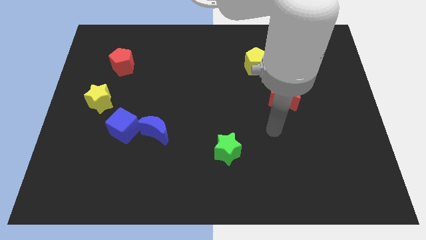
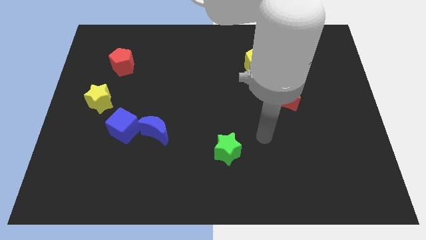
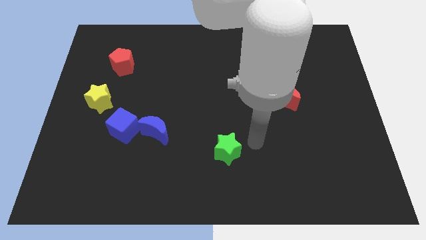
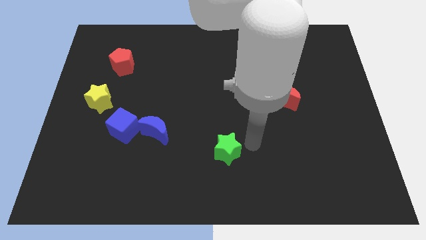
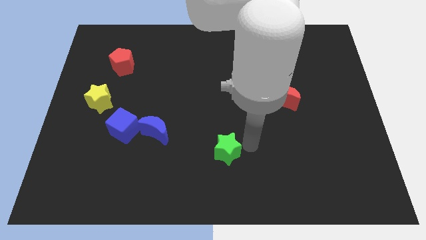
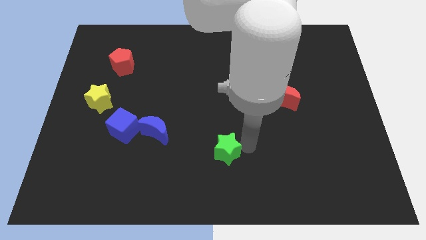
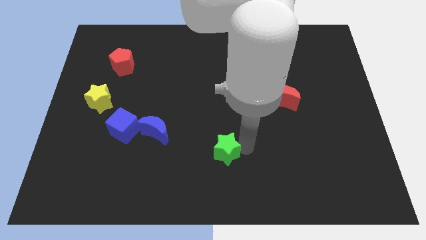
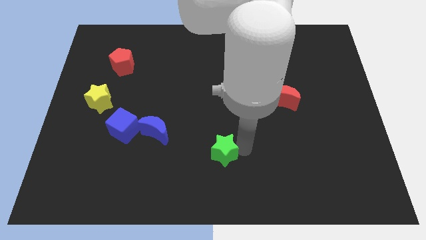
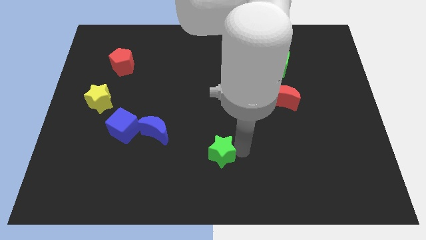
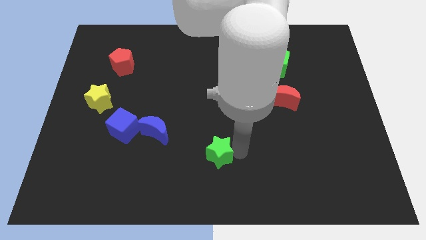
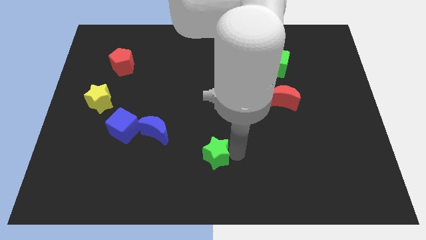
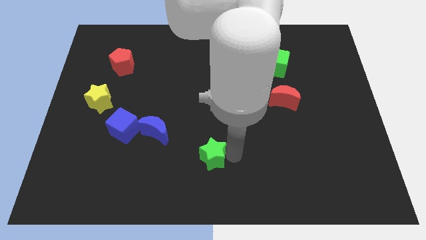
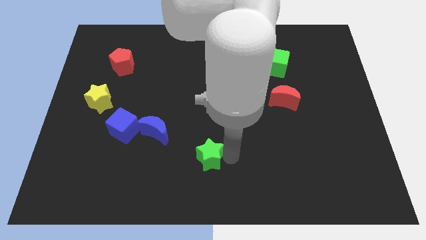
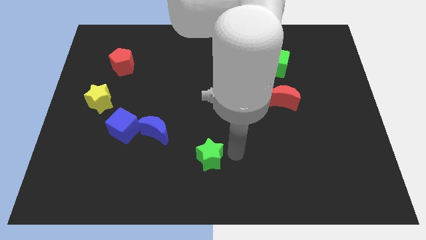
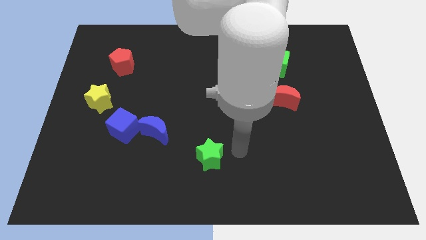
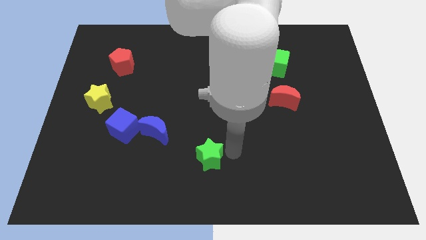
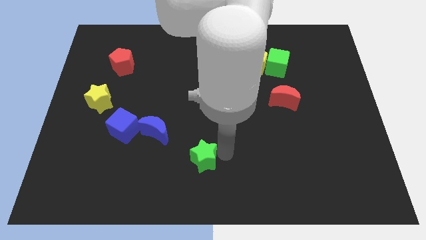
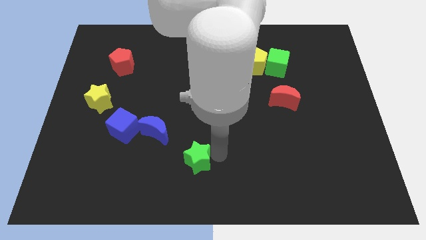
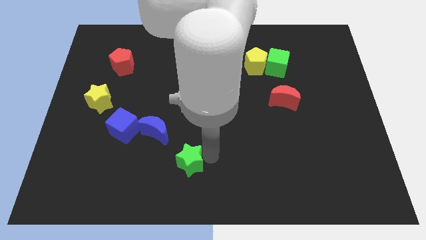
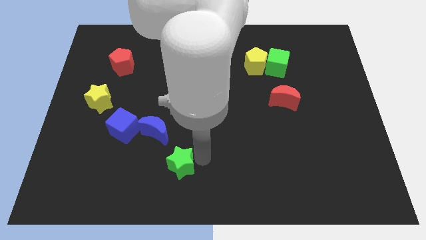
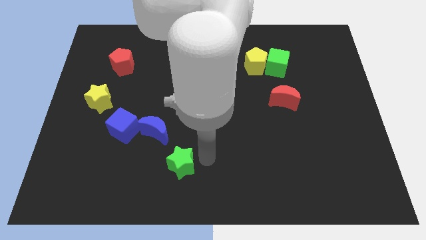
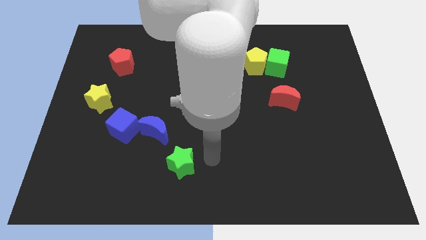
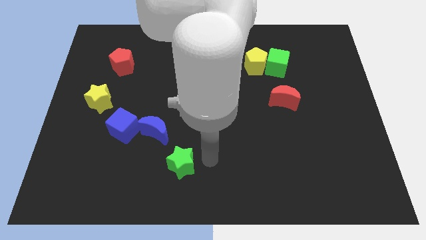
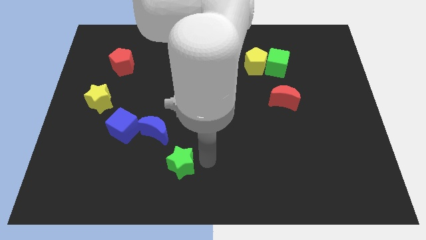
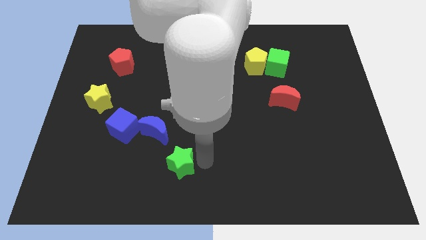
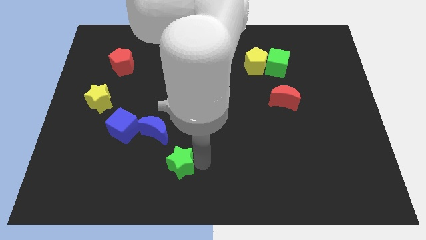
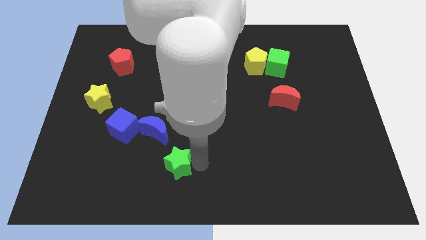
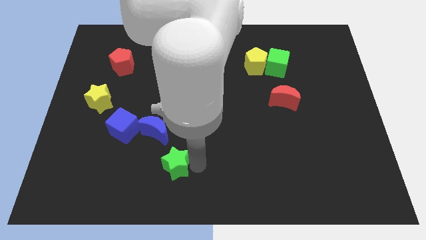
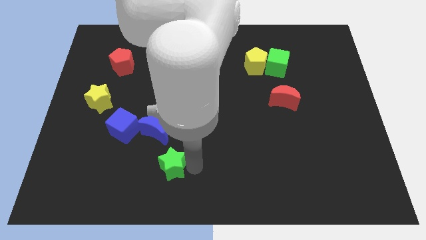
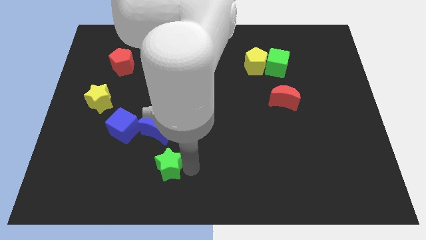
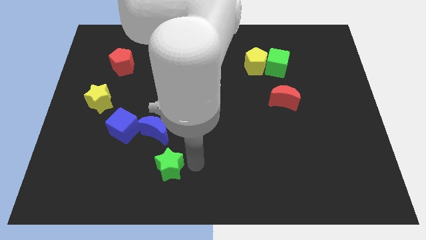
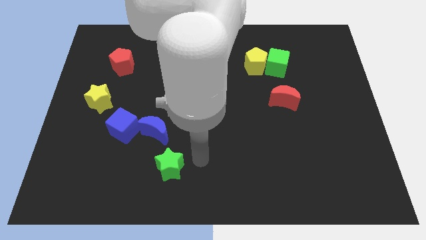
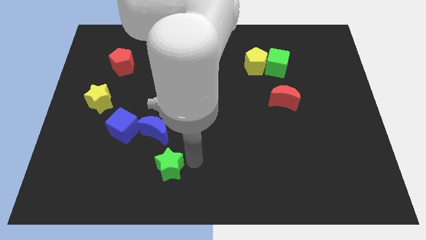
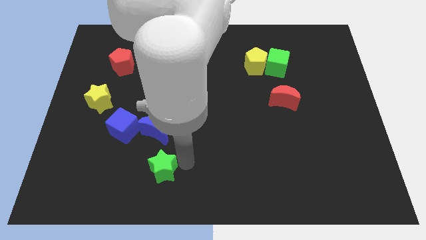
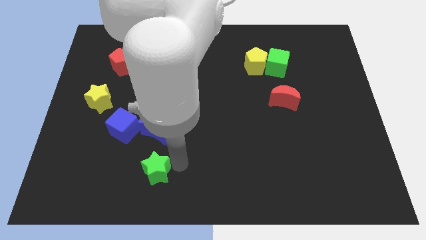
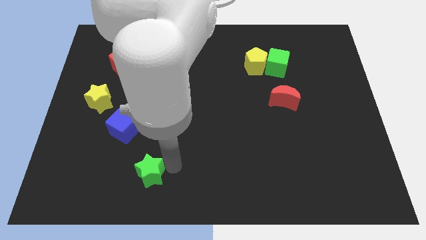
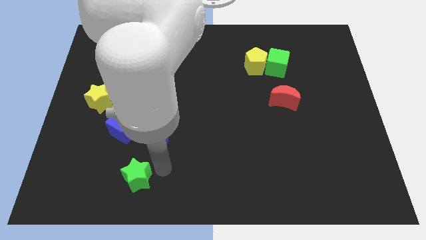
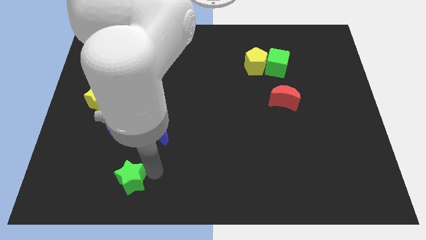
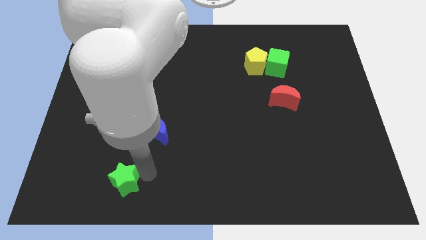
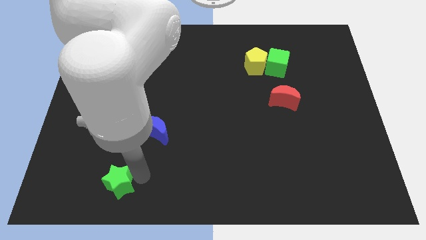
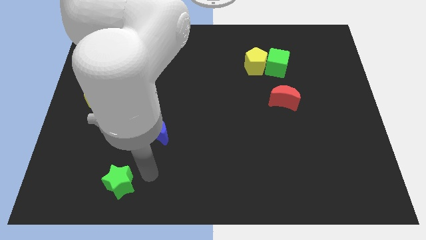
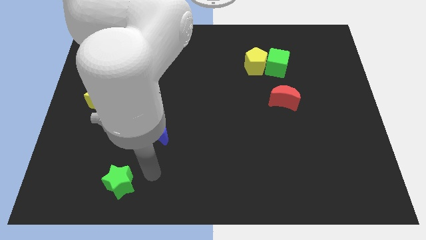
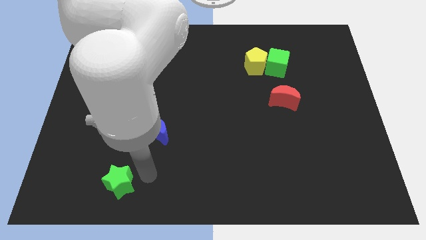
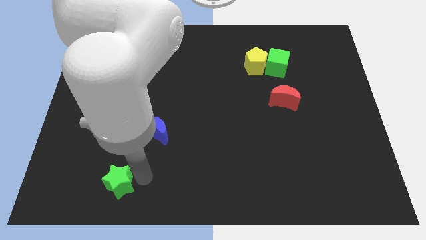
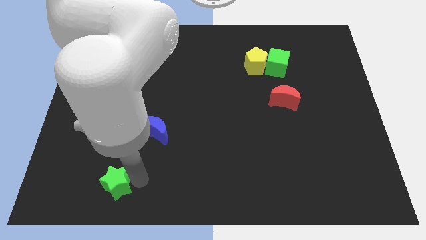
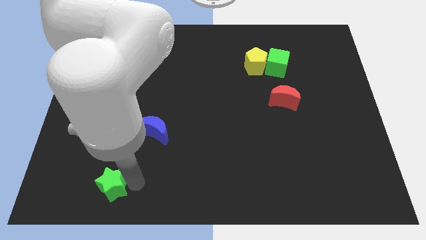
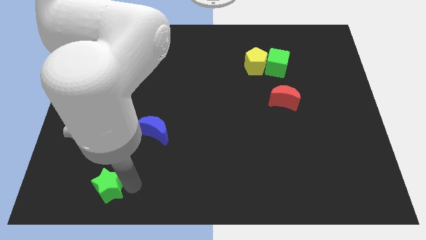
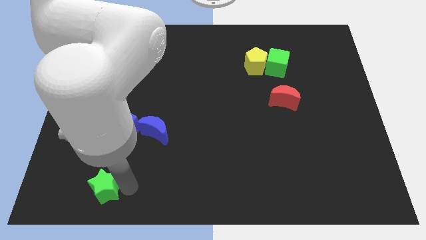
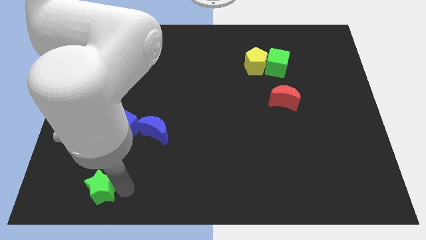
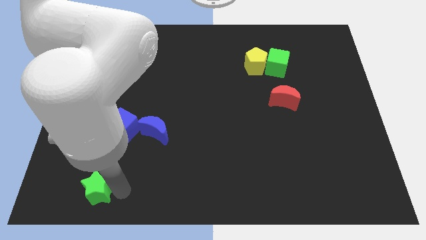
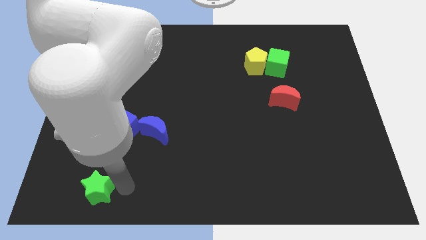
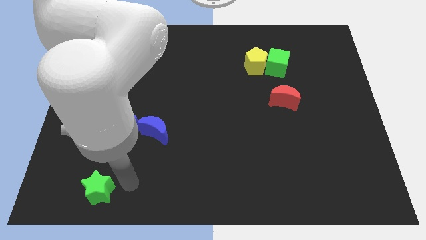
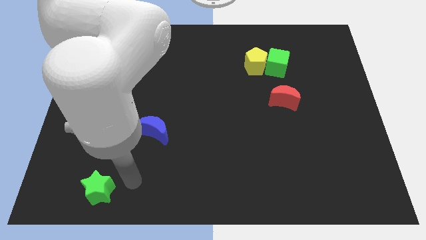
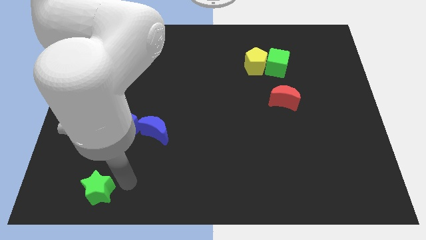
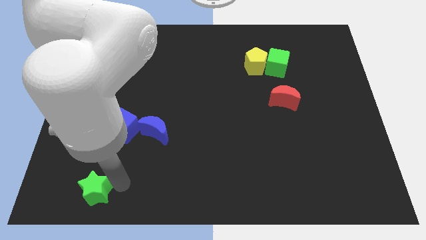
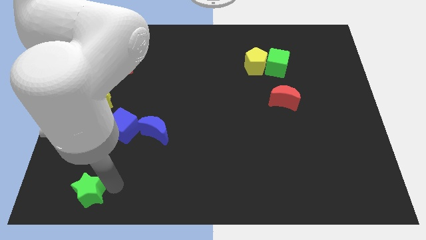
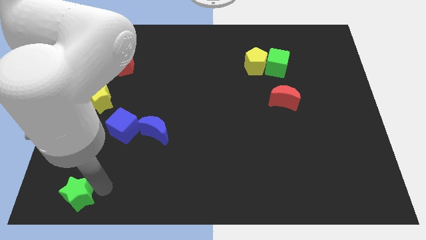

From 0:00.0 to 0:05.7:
move the green star to the bottom left

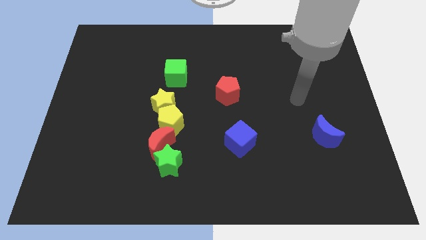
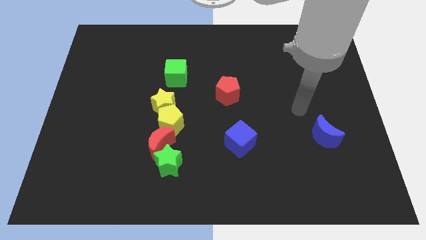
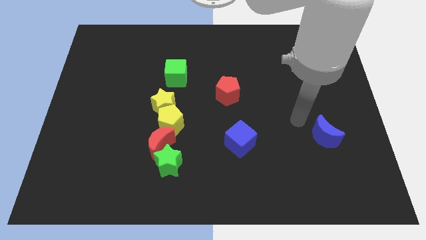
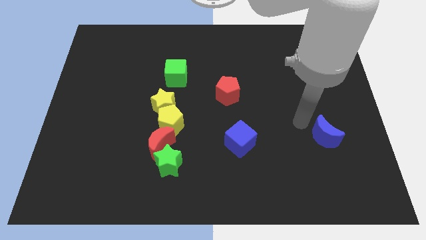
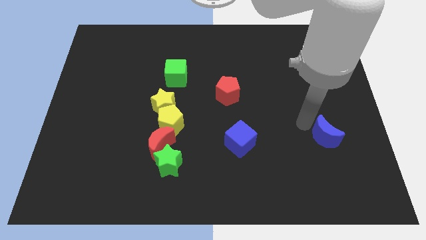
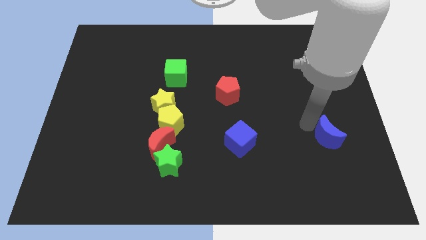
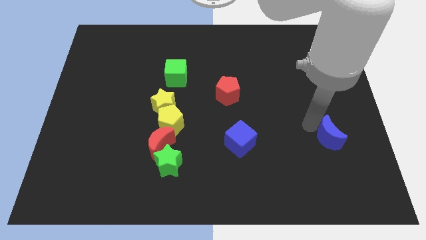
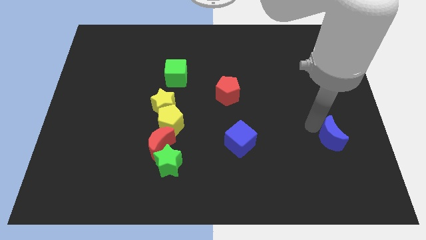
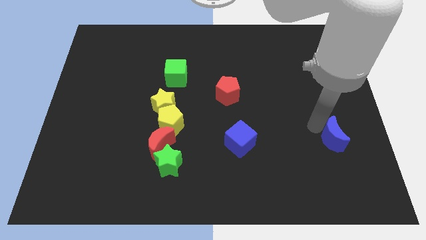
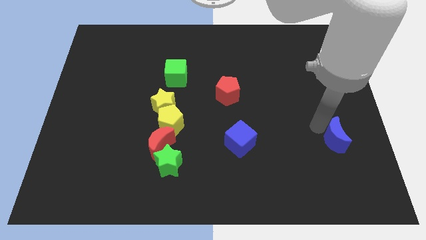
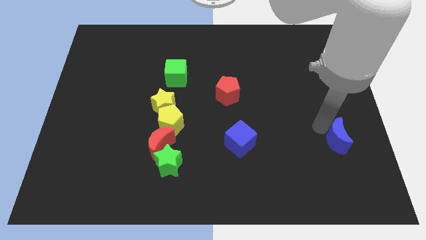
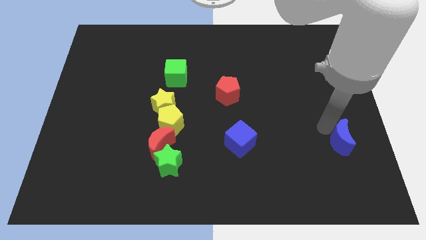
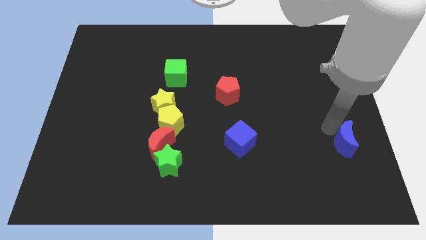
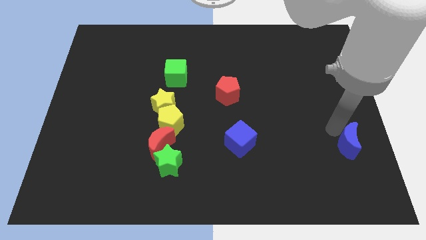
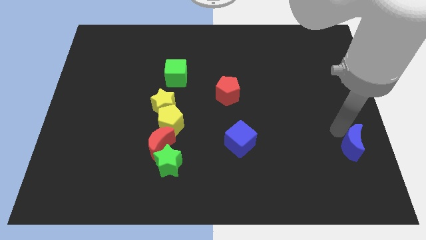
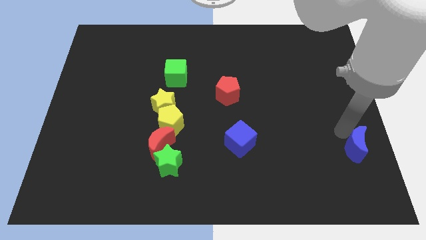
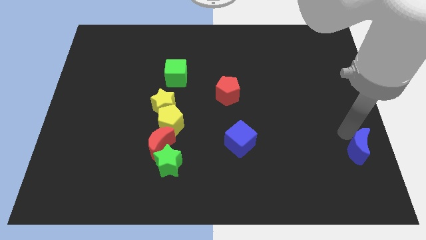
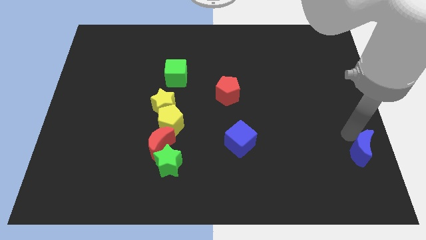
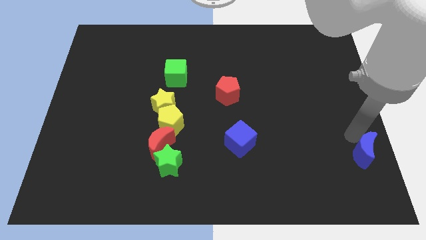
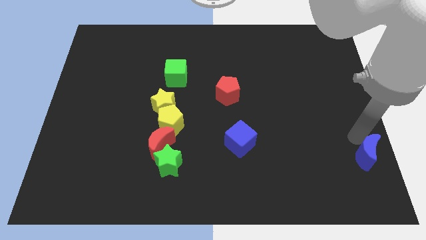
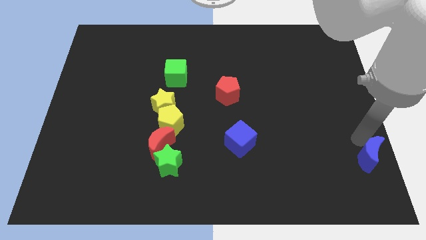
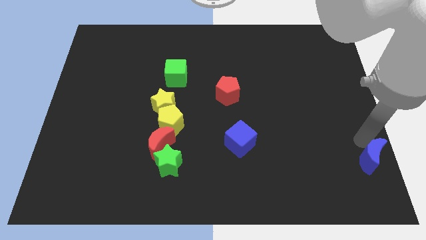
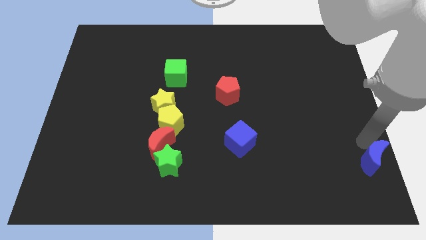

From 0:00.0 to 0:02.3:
move the blue moon to the bottom right corner
